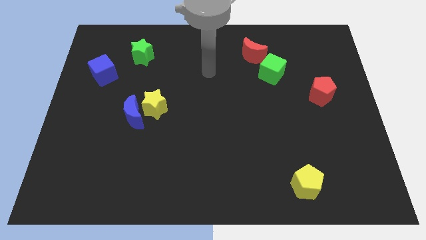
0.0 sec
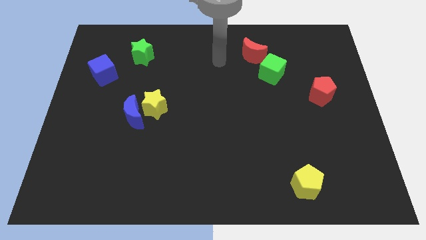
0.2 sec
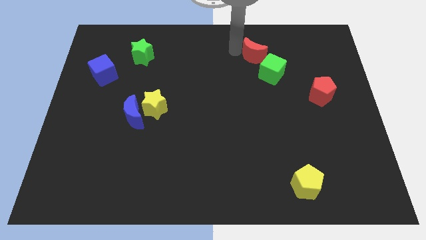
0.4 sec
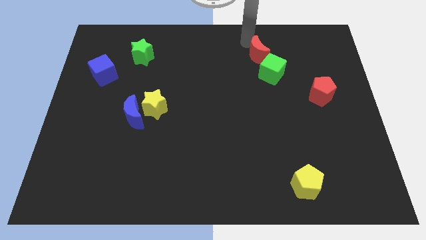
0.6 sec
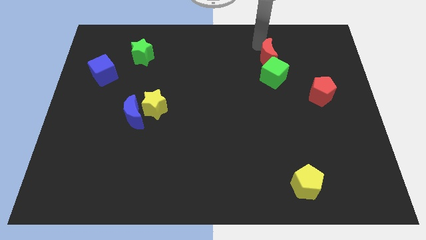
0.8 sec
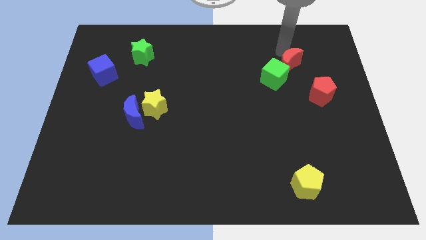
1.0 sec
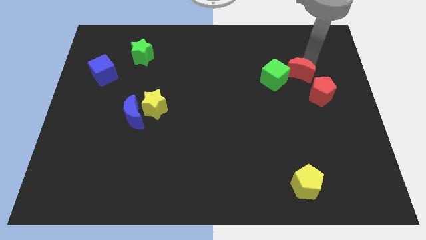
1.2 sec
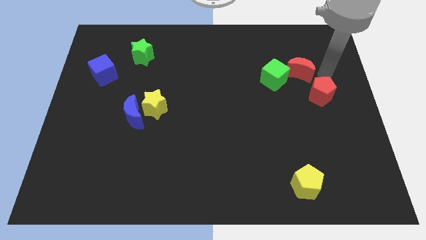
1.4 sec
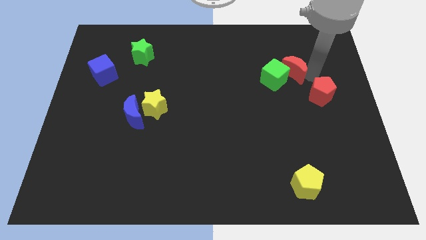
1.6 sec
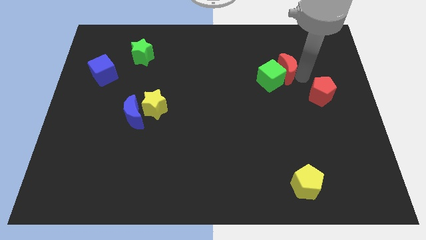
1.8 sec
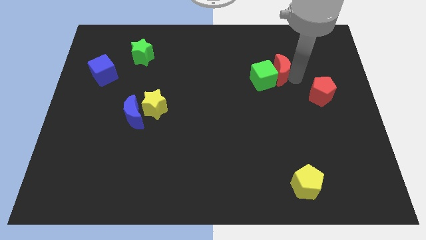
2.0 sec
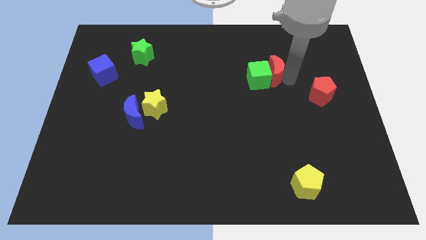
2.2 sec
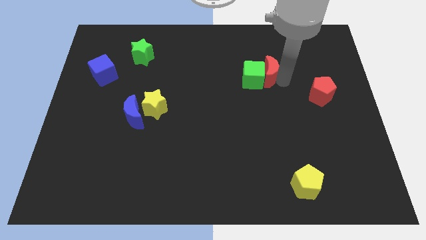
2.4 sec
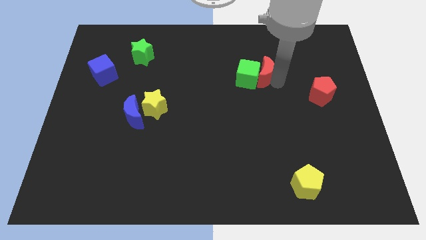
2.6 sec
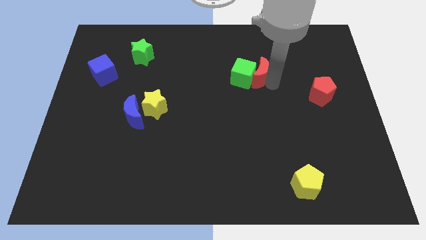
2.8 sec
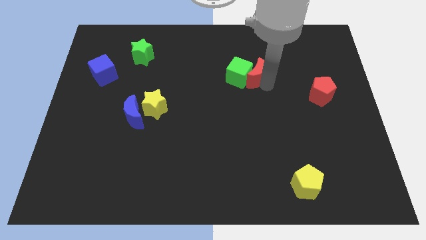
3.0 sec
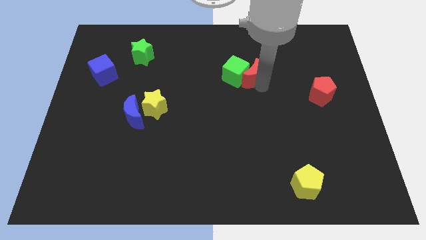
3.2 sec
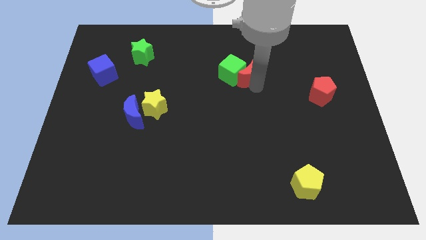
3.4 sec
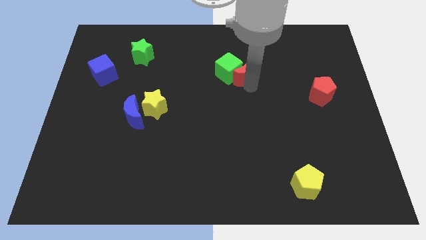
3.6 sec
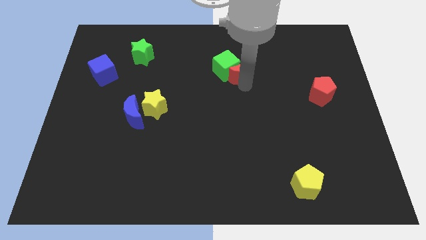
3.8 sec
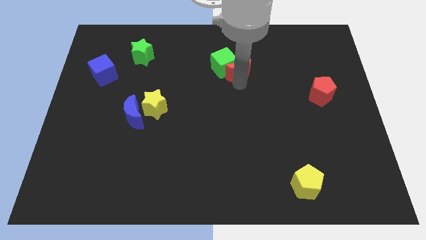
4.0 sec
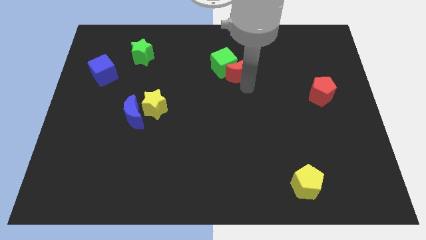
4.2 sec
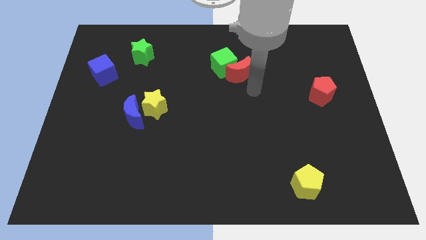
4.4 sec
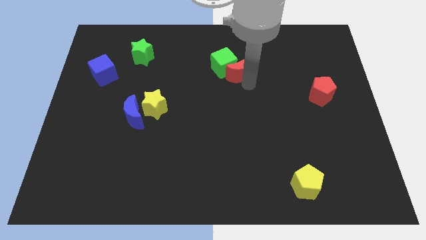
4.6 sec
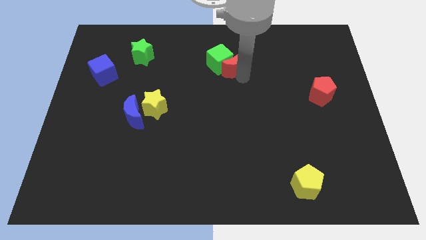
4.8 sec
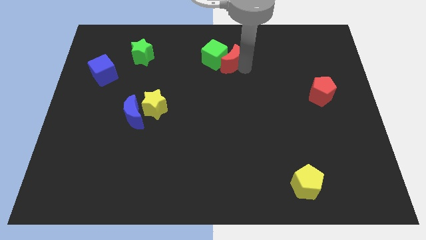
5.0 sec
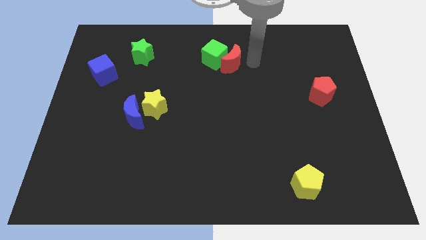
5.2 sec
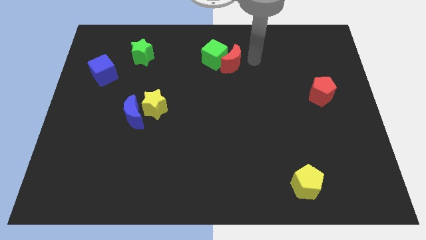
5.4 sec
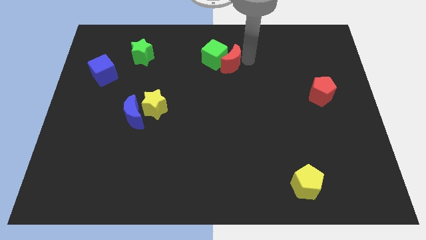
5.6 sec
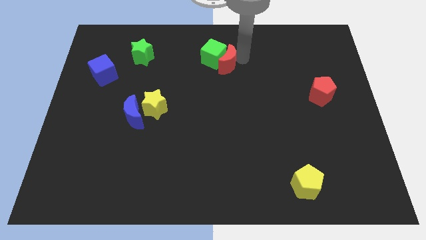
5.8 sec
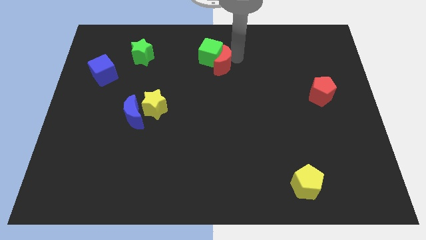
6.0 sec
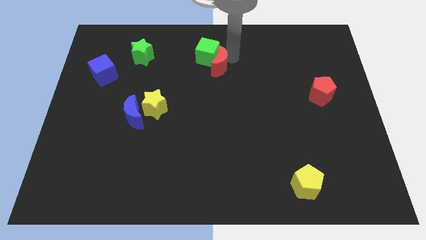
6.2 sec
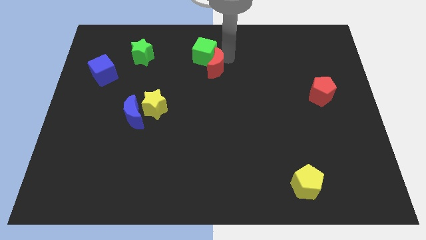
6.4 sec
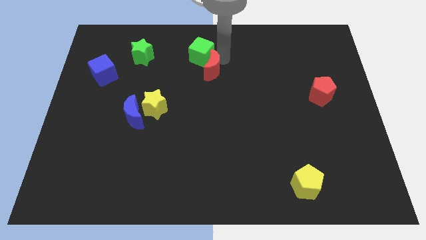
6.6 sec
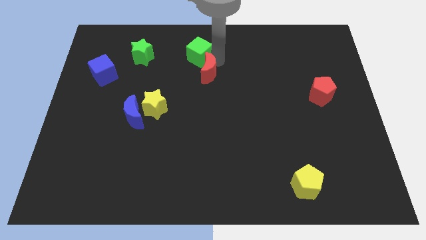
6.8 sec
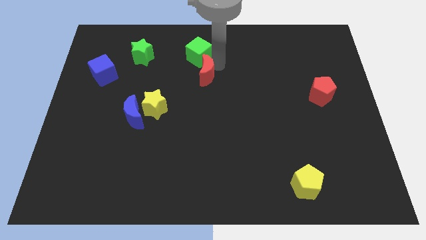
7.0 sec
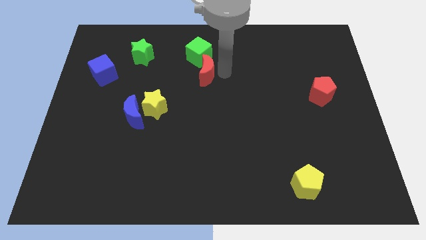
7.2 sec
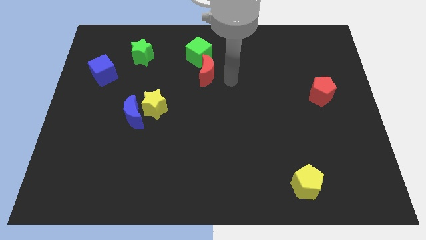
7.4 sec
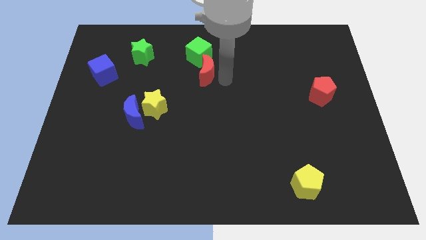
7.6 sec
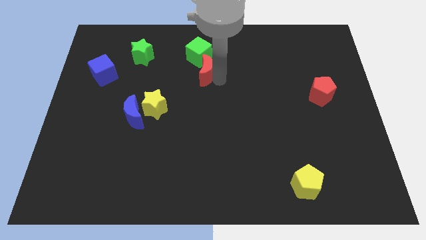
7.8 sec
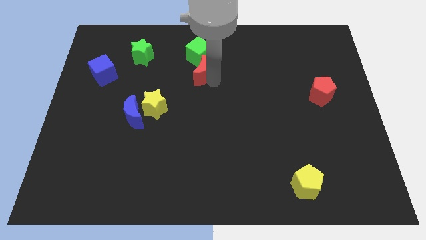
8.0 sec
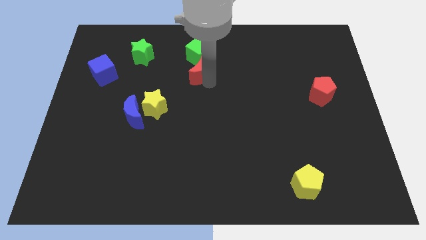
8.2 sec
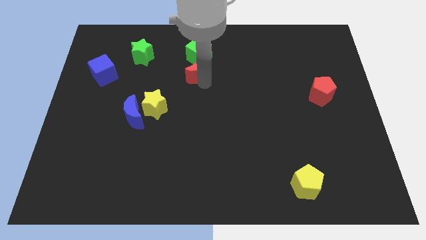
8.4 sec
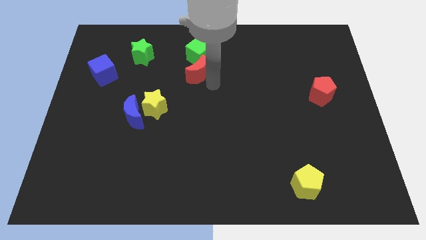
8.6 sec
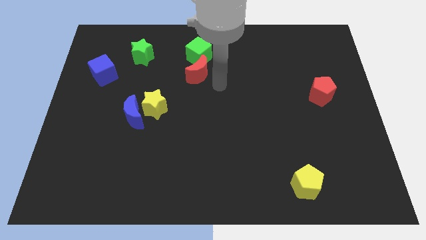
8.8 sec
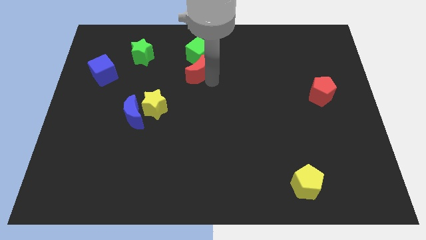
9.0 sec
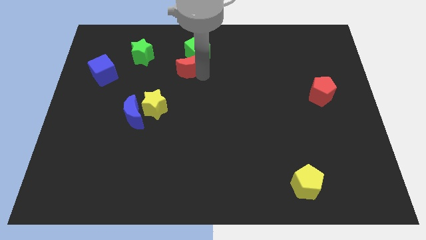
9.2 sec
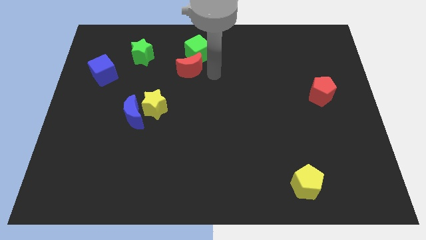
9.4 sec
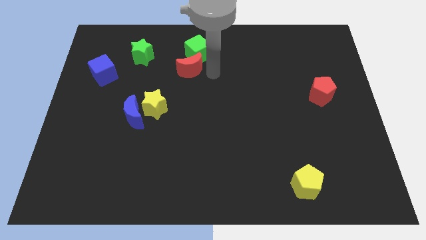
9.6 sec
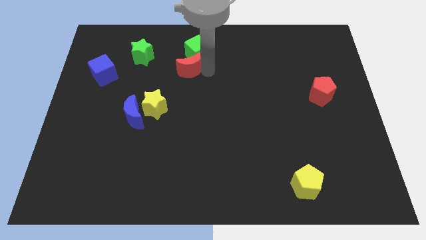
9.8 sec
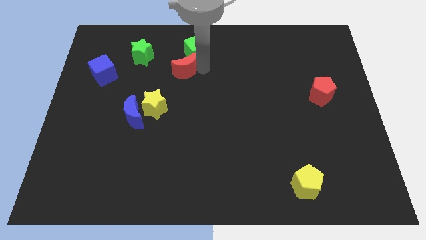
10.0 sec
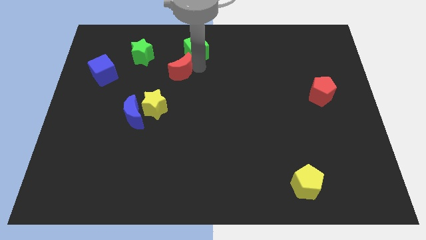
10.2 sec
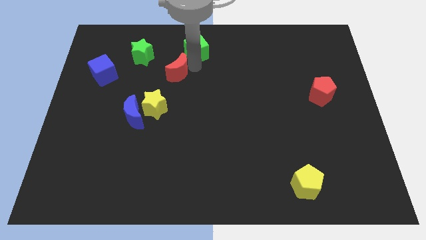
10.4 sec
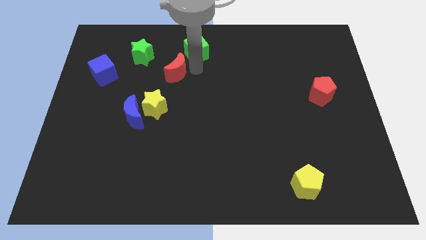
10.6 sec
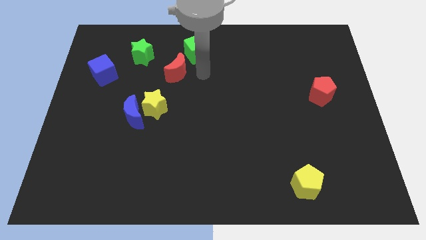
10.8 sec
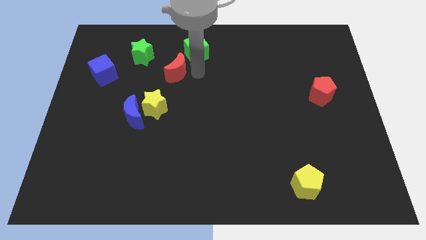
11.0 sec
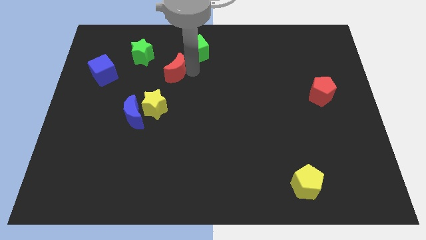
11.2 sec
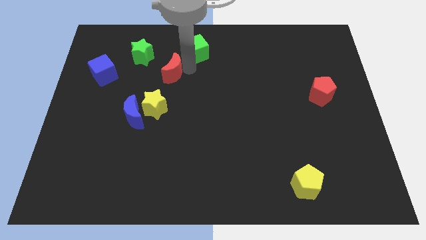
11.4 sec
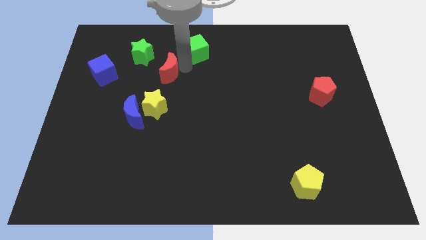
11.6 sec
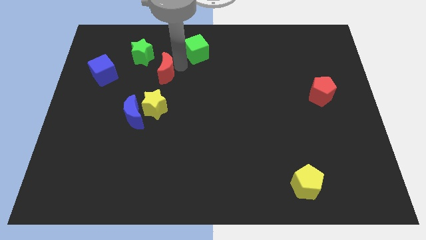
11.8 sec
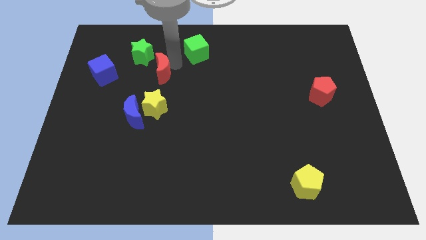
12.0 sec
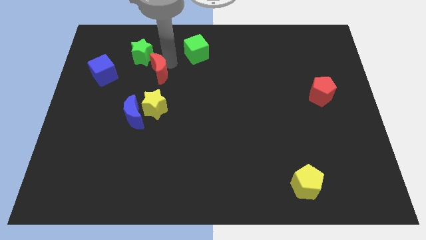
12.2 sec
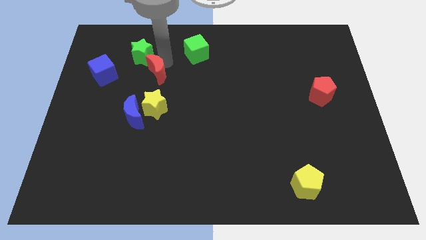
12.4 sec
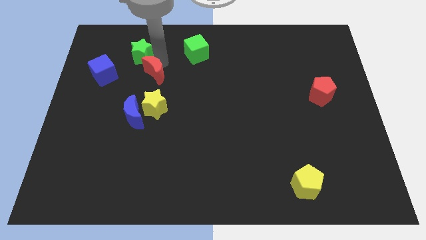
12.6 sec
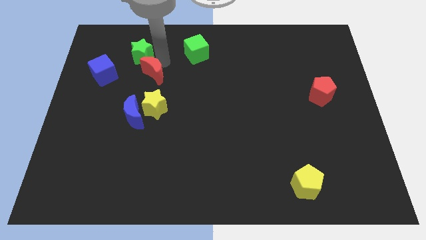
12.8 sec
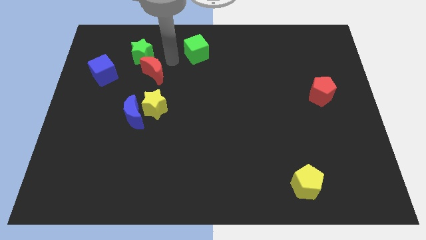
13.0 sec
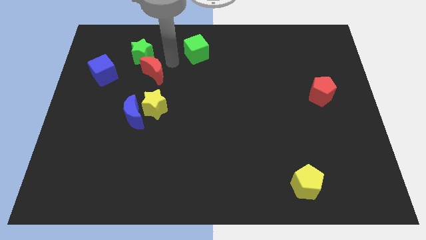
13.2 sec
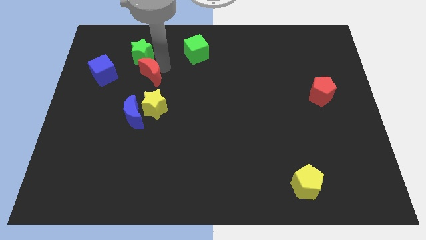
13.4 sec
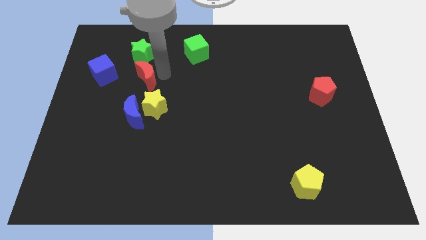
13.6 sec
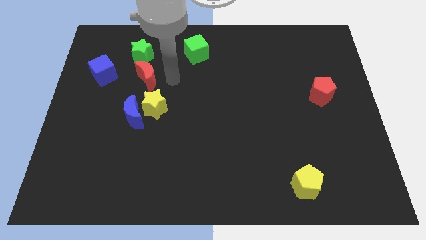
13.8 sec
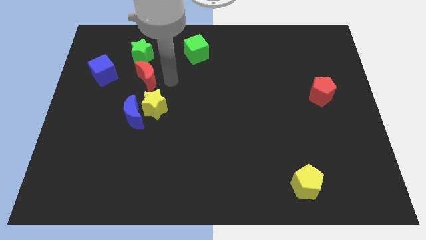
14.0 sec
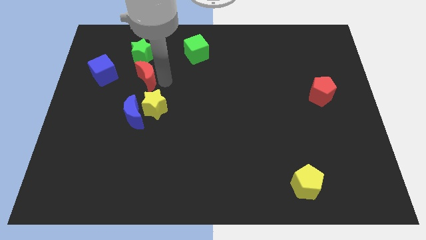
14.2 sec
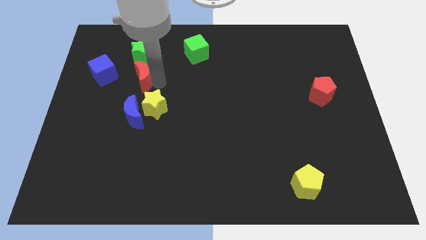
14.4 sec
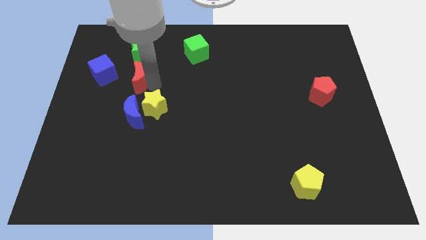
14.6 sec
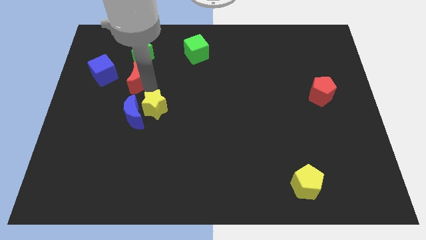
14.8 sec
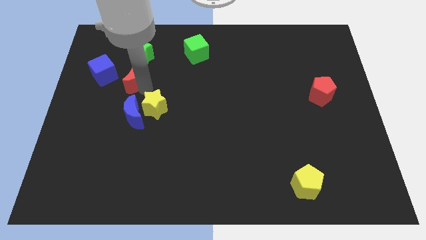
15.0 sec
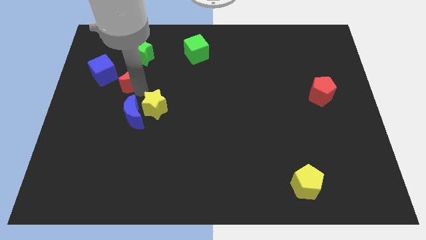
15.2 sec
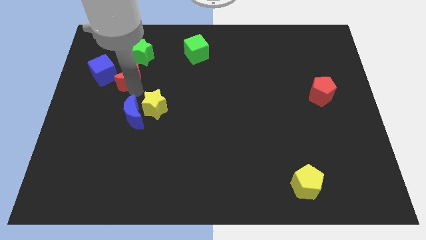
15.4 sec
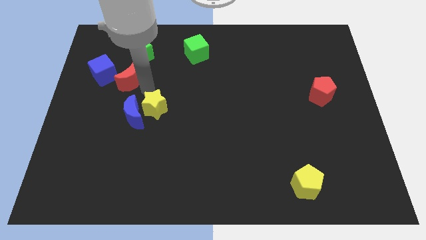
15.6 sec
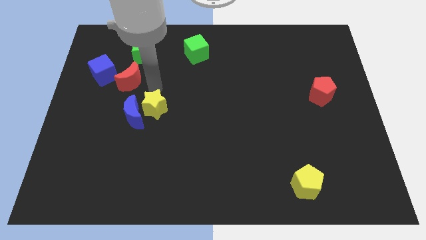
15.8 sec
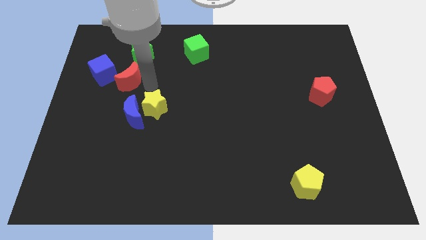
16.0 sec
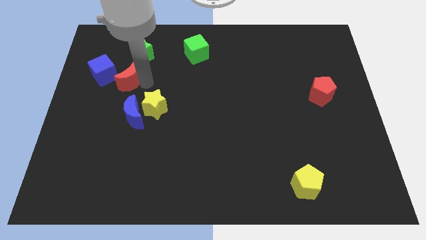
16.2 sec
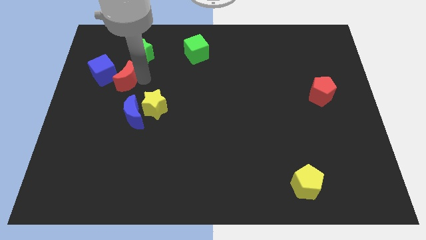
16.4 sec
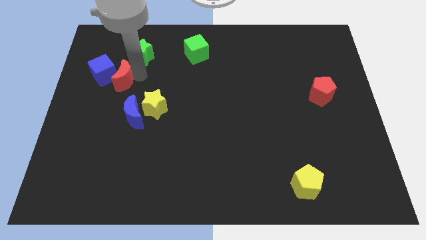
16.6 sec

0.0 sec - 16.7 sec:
move the red moon close to the blue cube
